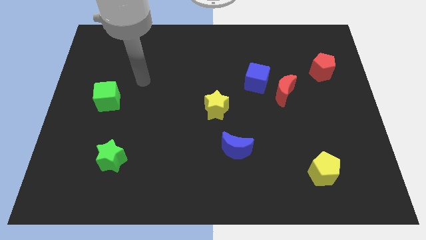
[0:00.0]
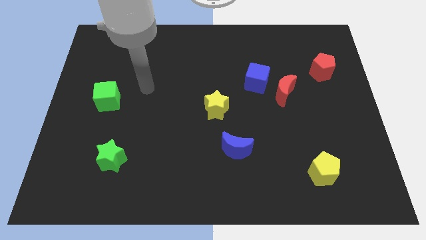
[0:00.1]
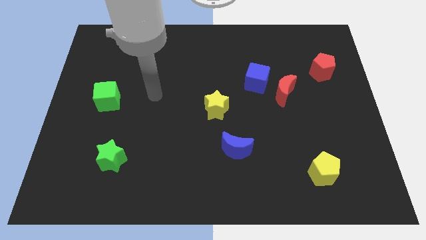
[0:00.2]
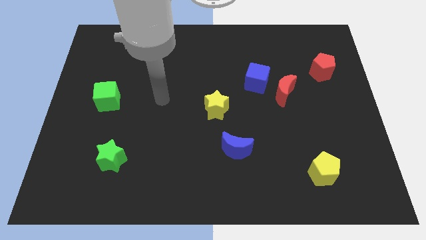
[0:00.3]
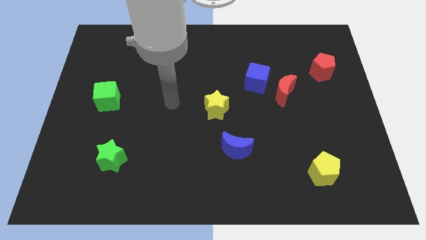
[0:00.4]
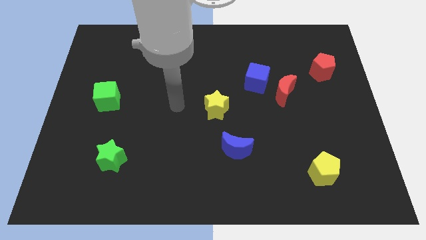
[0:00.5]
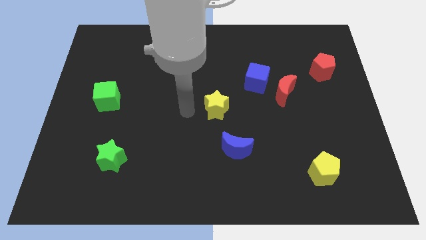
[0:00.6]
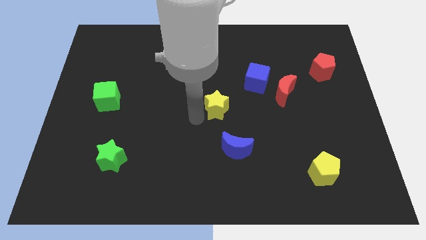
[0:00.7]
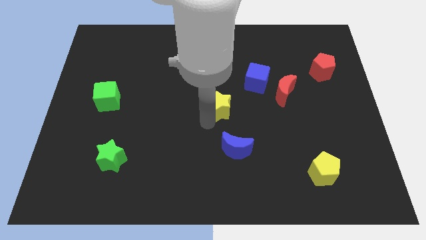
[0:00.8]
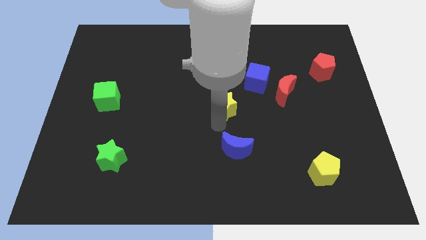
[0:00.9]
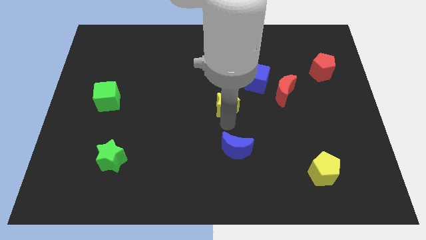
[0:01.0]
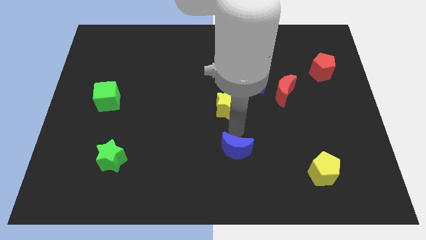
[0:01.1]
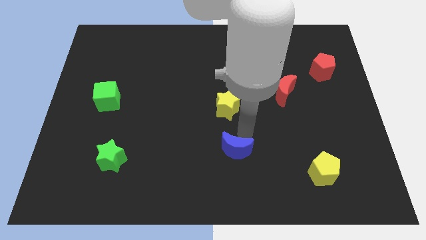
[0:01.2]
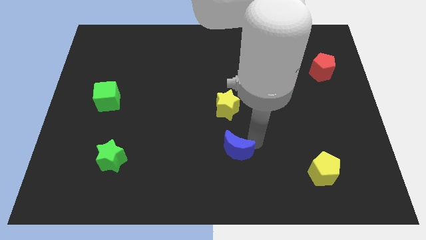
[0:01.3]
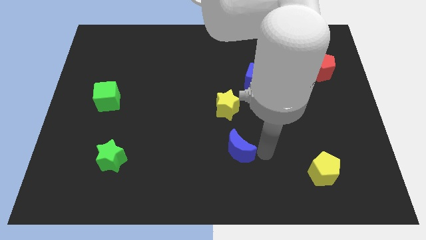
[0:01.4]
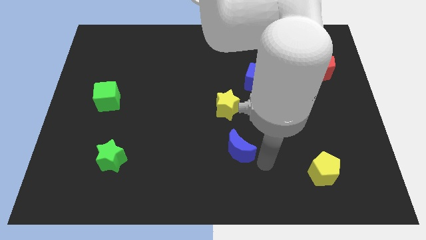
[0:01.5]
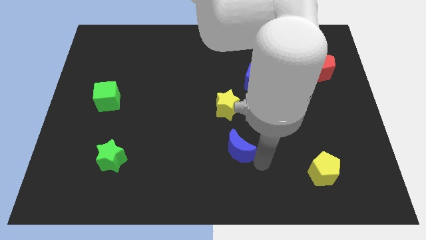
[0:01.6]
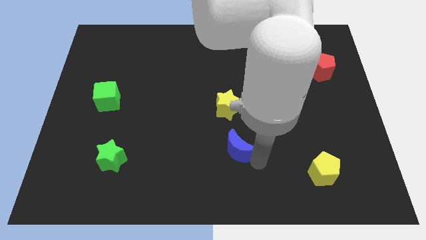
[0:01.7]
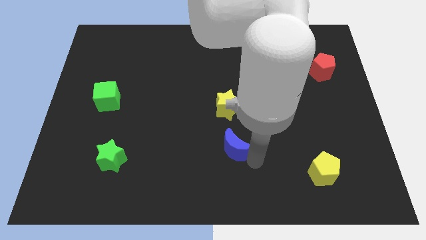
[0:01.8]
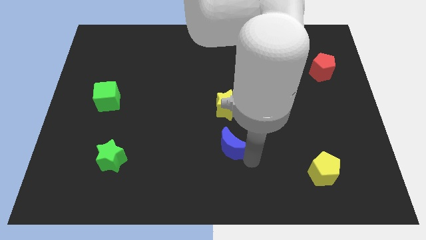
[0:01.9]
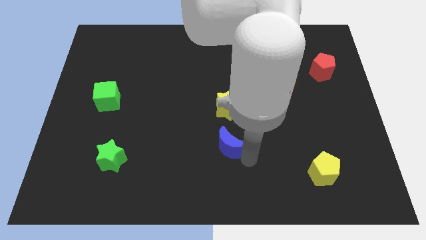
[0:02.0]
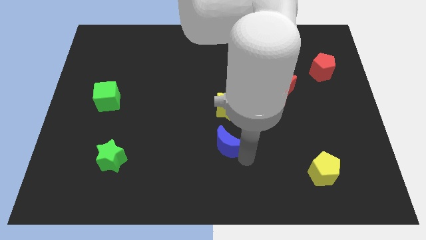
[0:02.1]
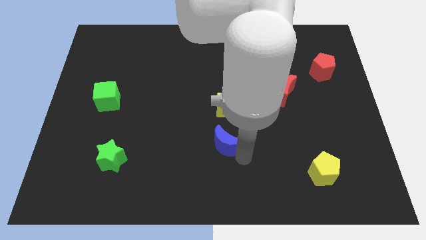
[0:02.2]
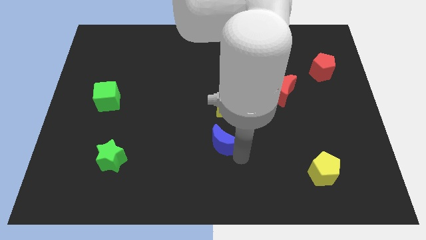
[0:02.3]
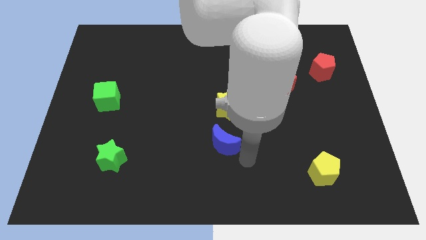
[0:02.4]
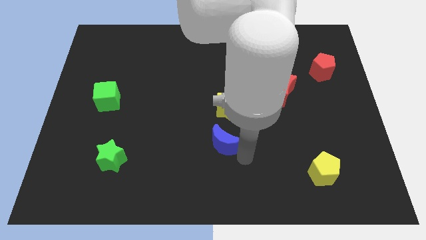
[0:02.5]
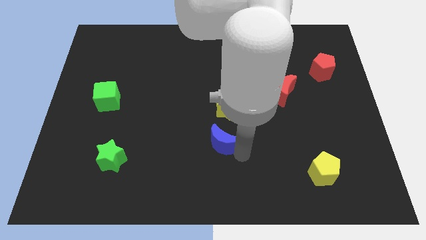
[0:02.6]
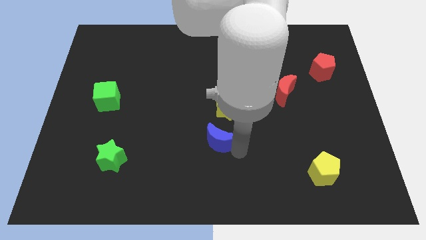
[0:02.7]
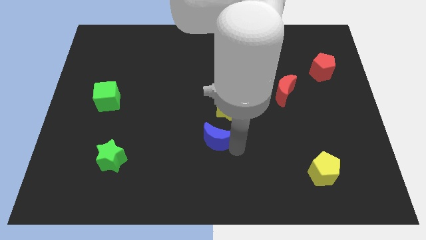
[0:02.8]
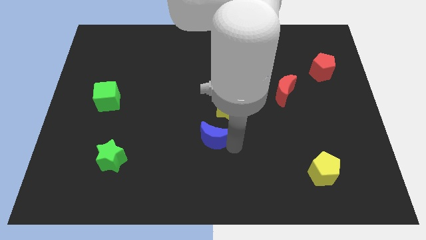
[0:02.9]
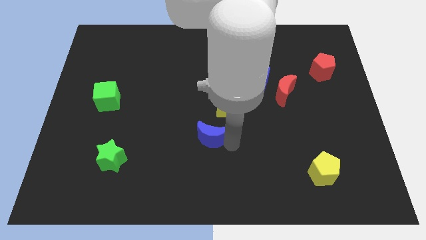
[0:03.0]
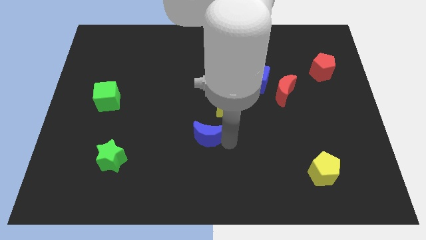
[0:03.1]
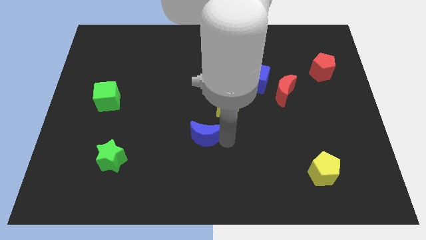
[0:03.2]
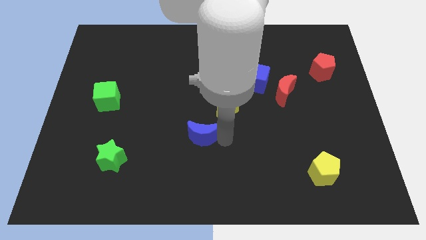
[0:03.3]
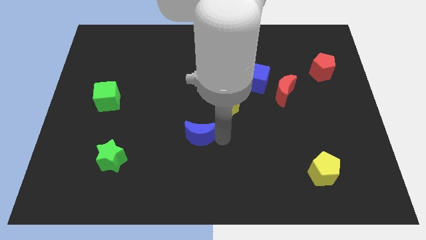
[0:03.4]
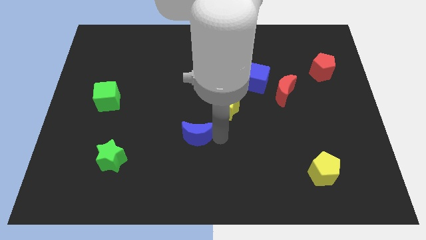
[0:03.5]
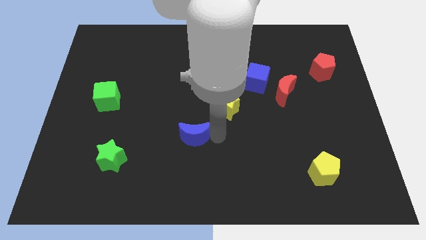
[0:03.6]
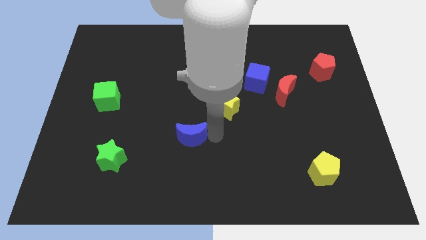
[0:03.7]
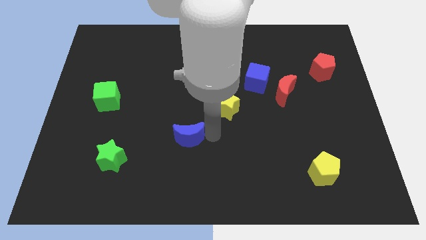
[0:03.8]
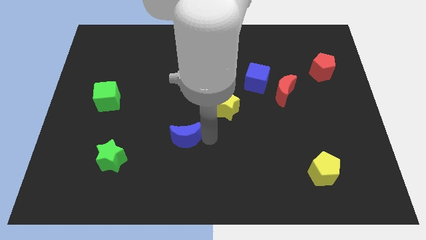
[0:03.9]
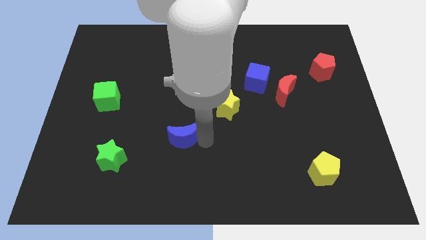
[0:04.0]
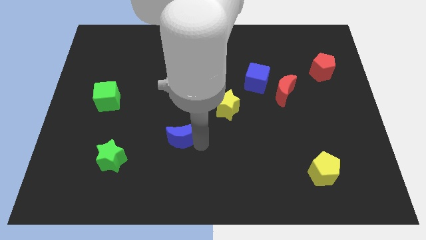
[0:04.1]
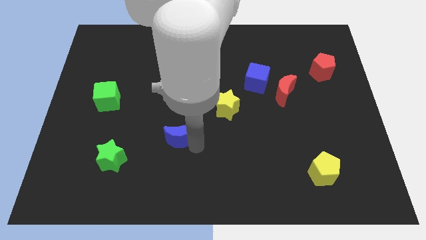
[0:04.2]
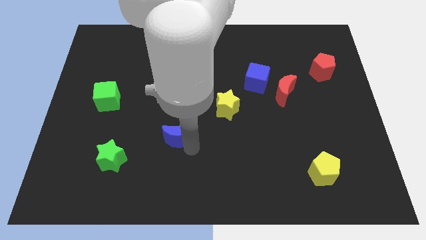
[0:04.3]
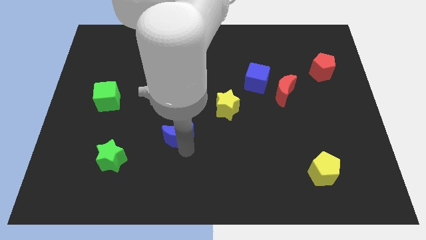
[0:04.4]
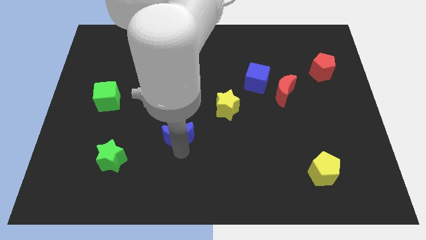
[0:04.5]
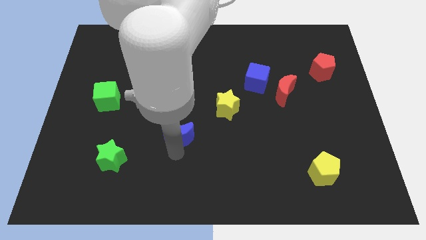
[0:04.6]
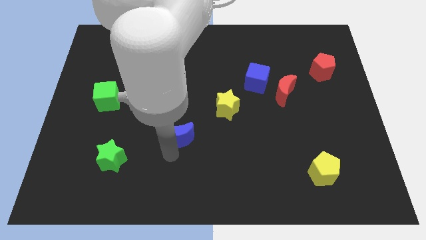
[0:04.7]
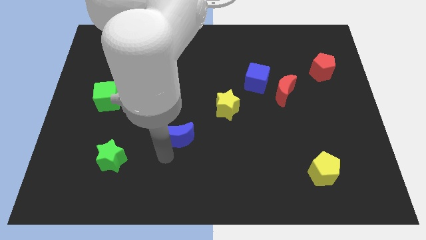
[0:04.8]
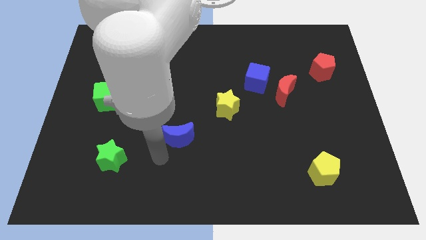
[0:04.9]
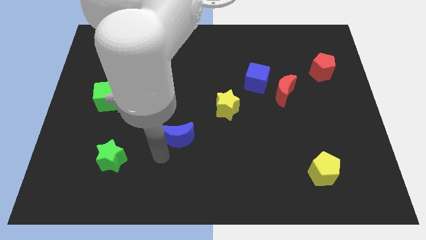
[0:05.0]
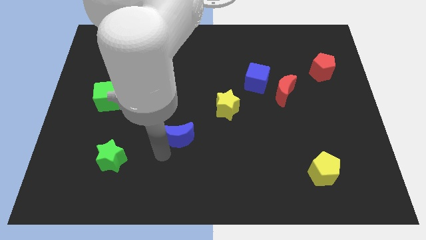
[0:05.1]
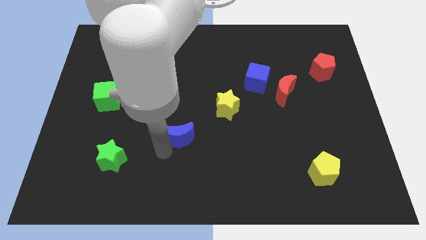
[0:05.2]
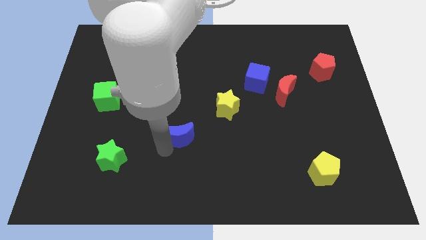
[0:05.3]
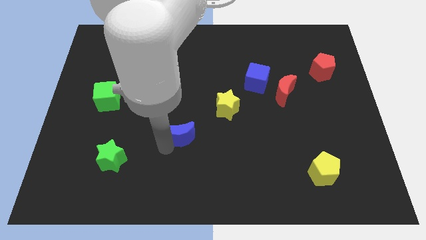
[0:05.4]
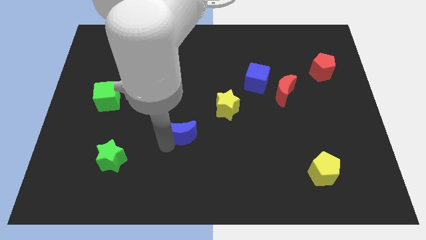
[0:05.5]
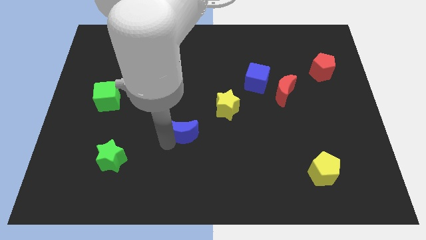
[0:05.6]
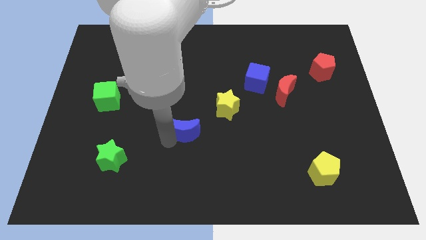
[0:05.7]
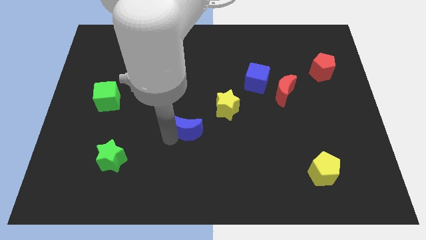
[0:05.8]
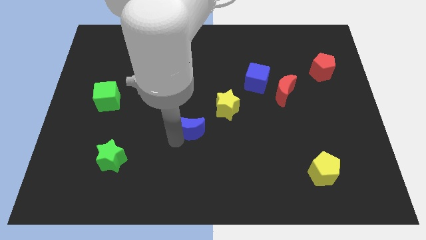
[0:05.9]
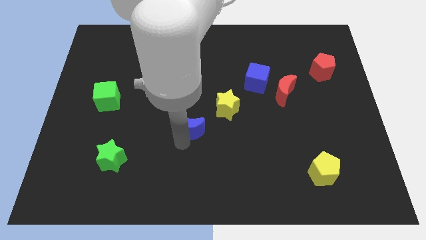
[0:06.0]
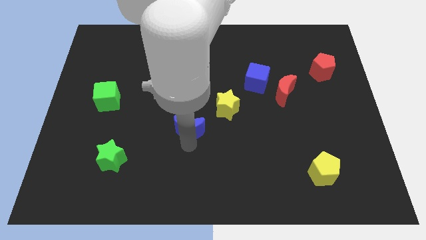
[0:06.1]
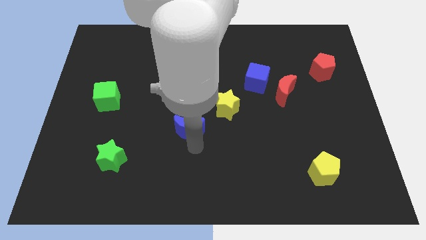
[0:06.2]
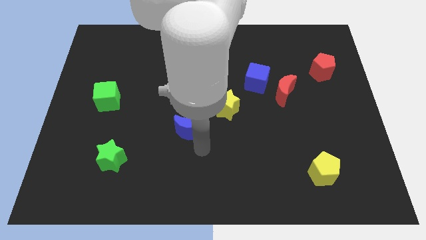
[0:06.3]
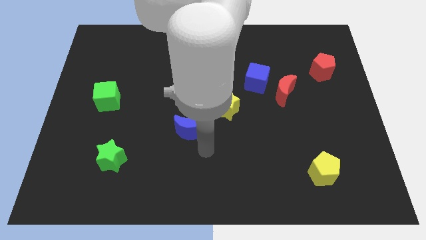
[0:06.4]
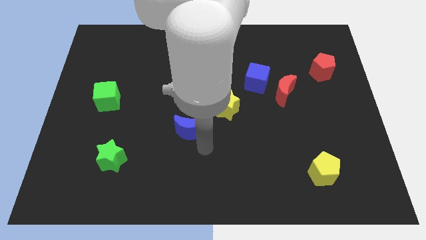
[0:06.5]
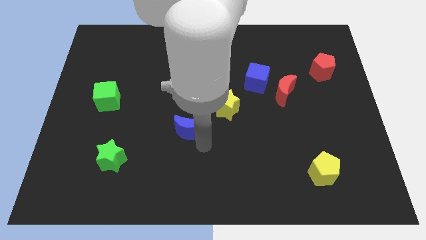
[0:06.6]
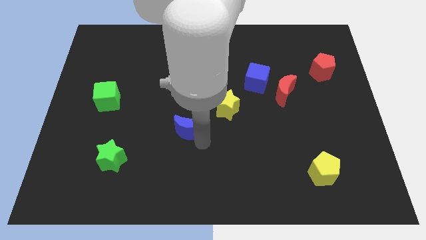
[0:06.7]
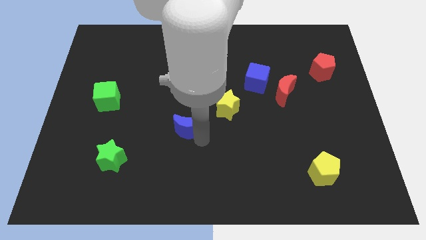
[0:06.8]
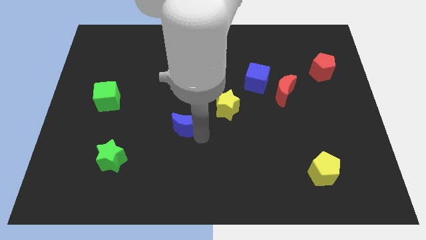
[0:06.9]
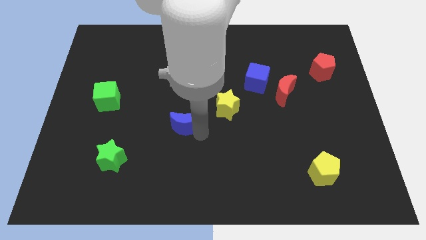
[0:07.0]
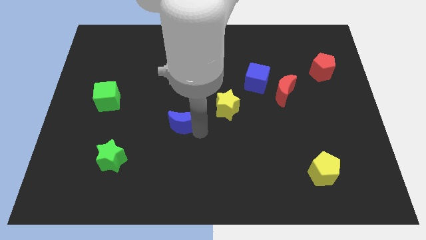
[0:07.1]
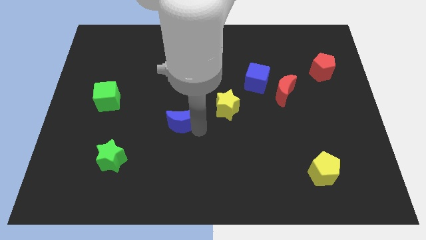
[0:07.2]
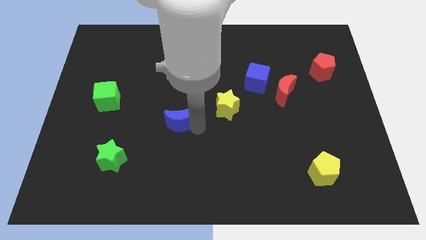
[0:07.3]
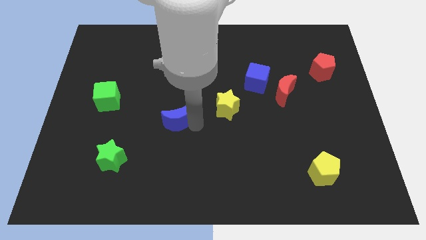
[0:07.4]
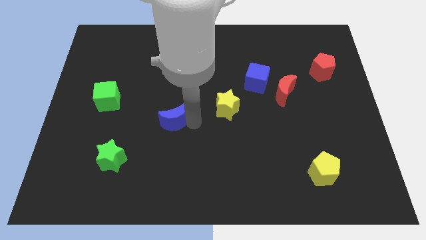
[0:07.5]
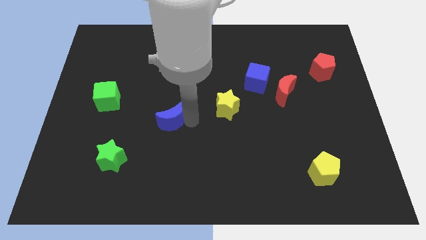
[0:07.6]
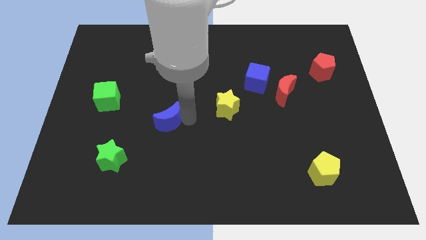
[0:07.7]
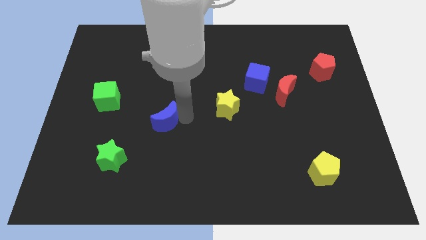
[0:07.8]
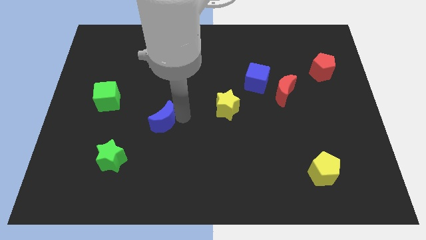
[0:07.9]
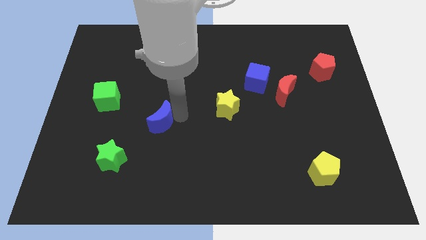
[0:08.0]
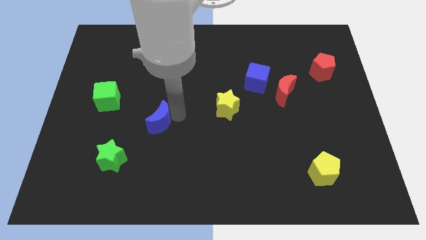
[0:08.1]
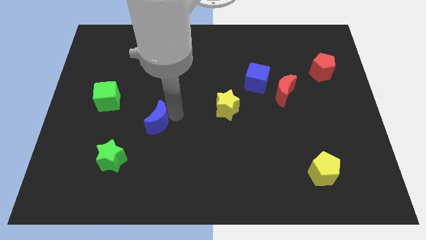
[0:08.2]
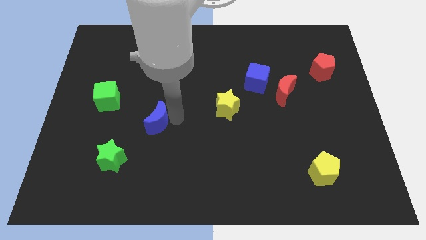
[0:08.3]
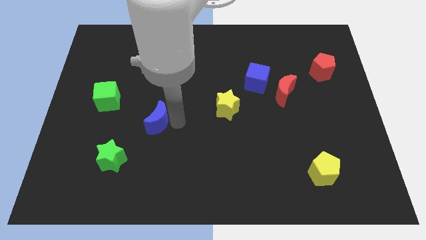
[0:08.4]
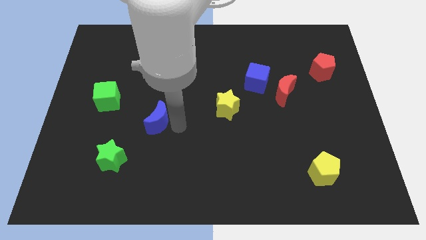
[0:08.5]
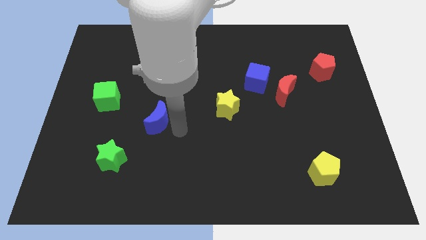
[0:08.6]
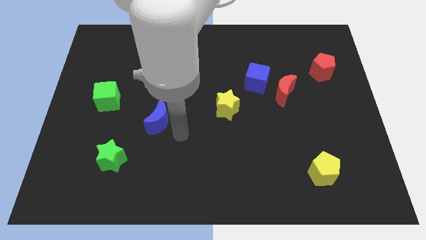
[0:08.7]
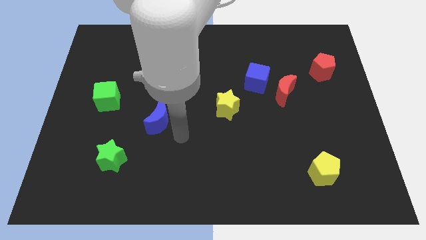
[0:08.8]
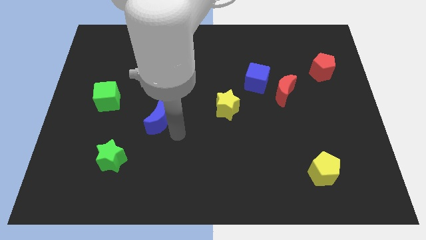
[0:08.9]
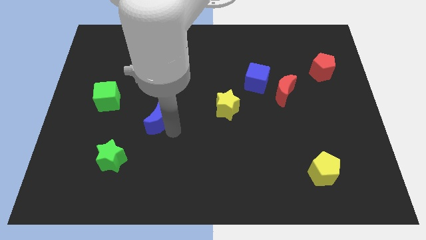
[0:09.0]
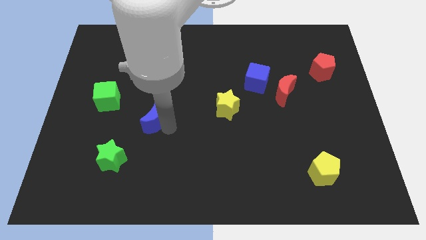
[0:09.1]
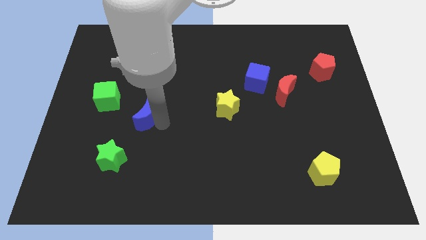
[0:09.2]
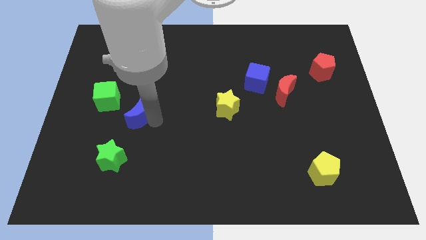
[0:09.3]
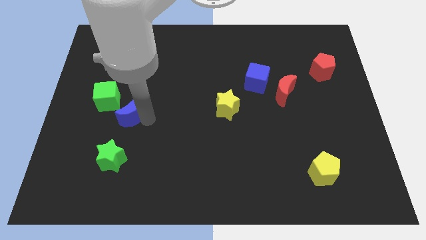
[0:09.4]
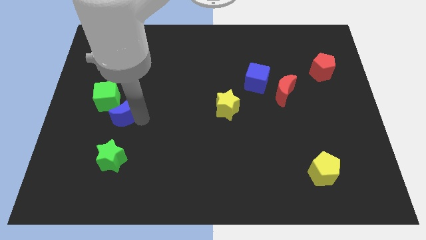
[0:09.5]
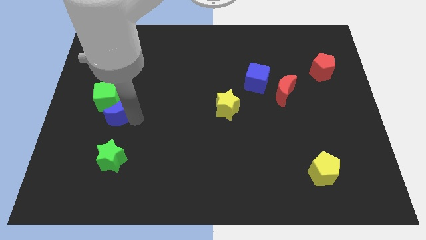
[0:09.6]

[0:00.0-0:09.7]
push the blue moon close to the green cube
